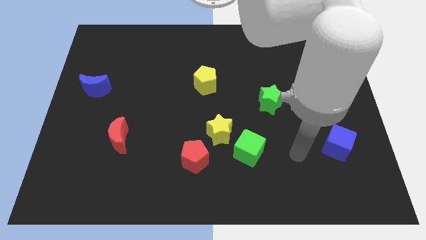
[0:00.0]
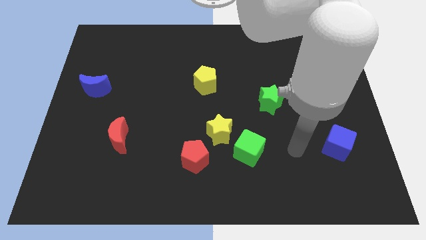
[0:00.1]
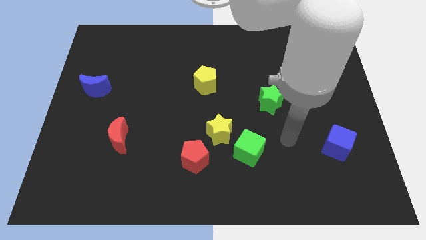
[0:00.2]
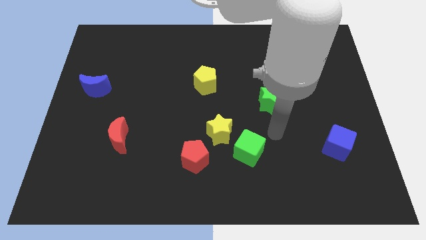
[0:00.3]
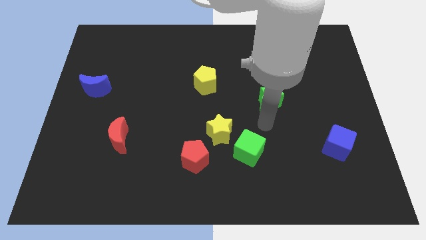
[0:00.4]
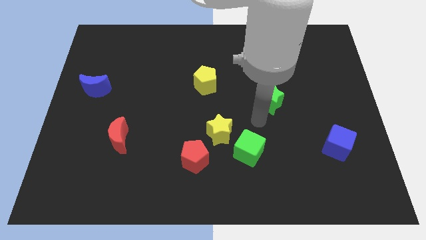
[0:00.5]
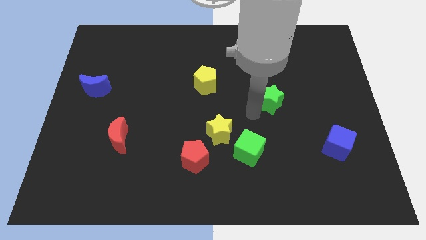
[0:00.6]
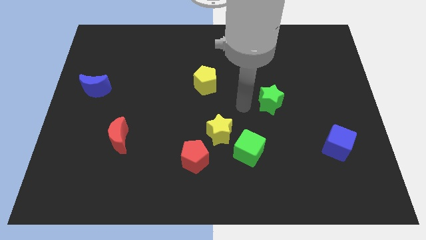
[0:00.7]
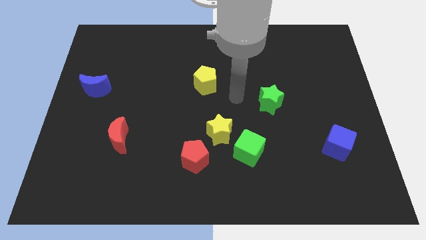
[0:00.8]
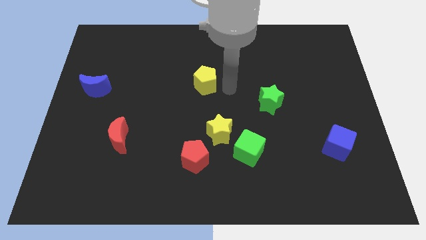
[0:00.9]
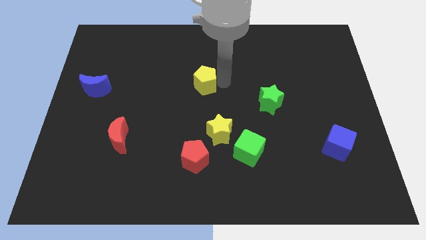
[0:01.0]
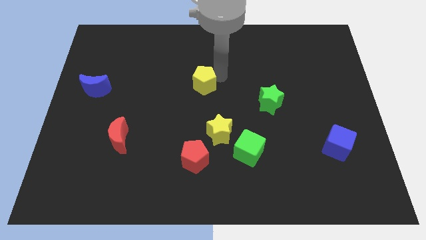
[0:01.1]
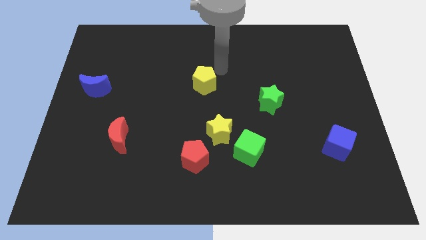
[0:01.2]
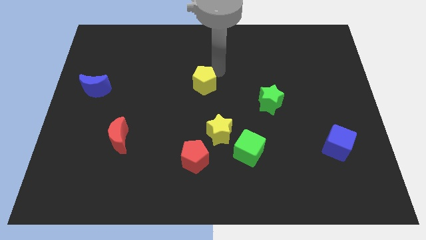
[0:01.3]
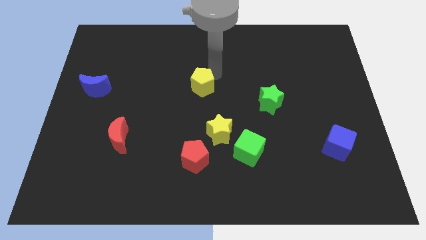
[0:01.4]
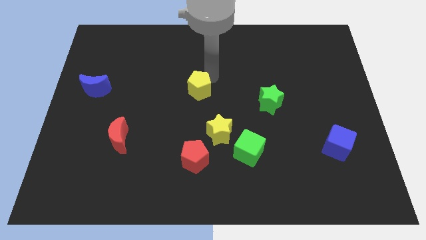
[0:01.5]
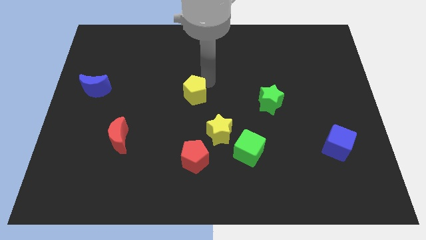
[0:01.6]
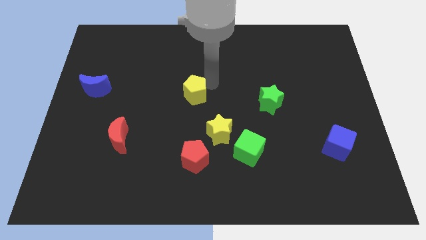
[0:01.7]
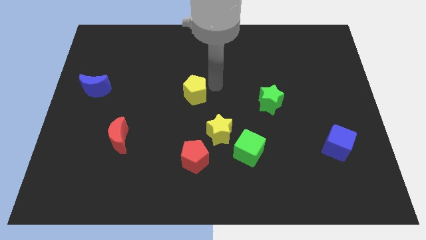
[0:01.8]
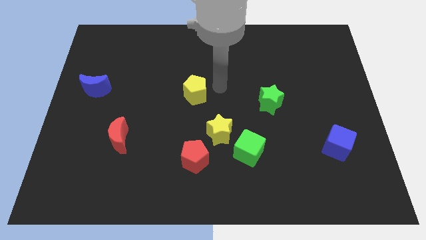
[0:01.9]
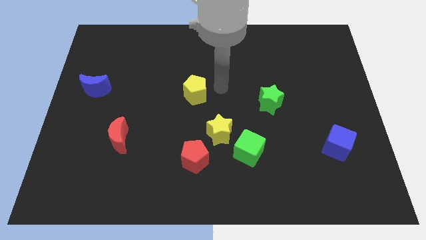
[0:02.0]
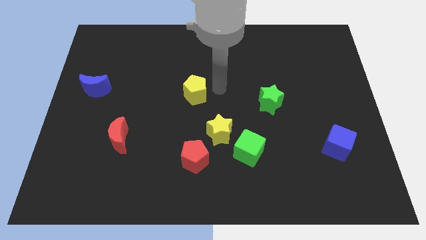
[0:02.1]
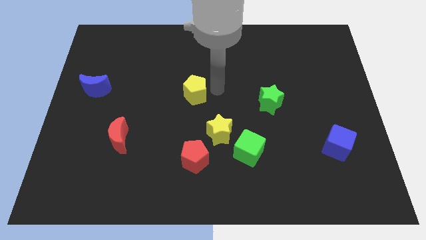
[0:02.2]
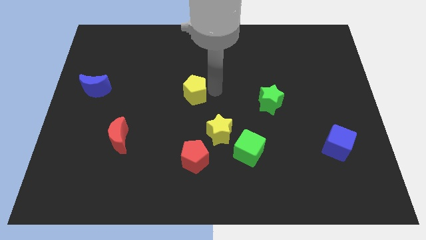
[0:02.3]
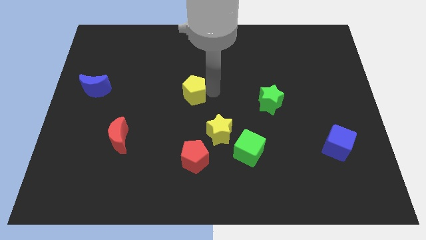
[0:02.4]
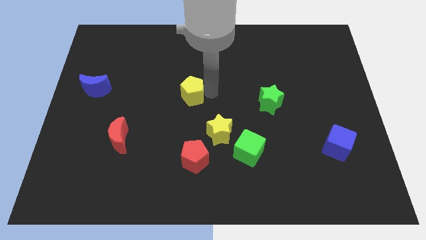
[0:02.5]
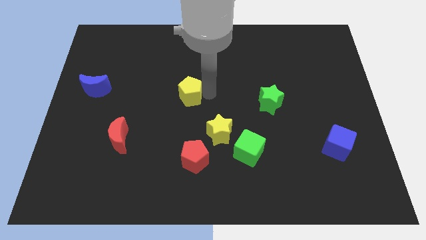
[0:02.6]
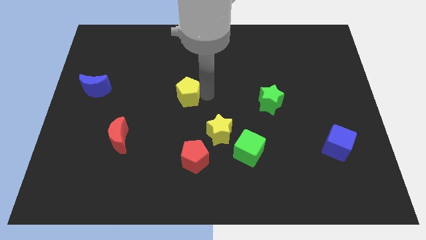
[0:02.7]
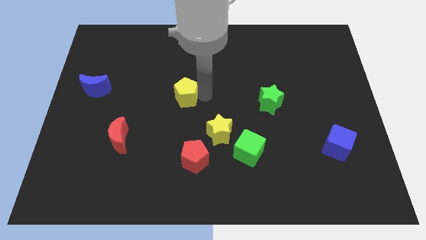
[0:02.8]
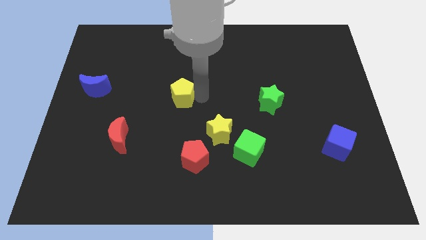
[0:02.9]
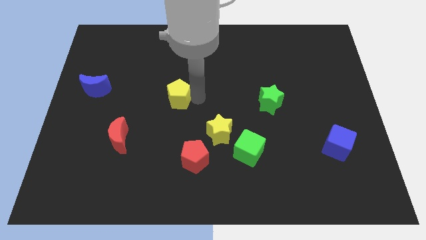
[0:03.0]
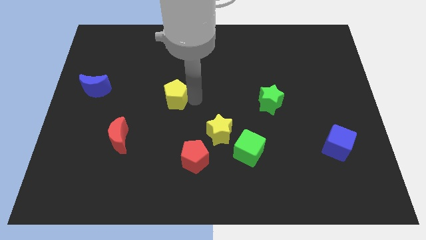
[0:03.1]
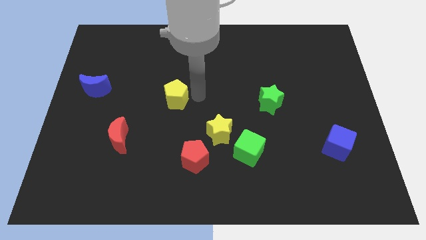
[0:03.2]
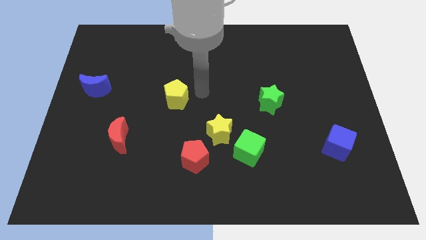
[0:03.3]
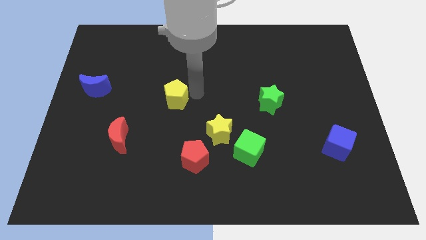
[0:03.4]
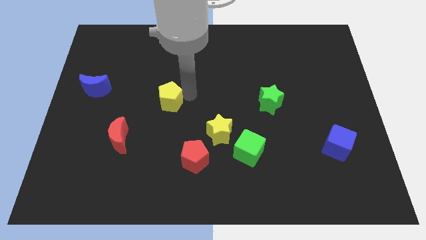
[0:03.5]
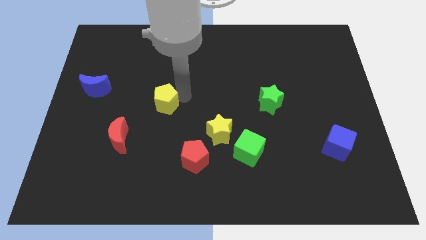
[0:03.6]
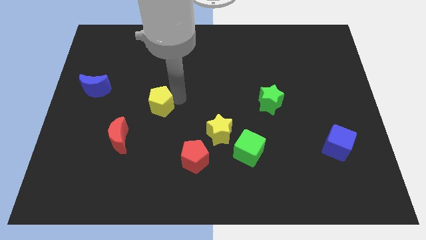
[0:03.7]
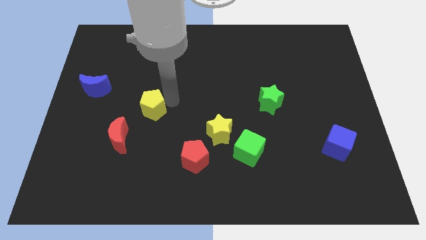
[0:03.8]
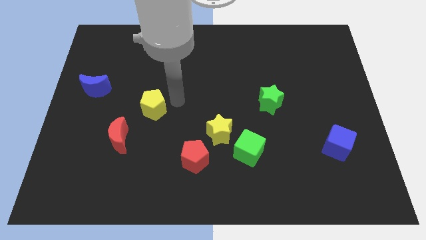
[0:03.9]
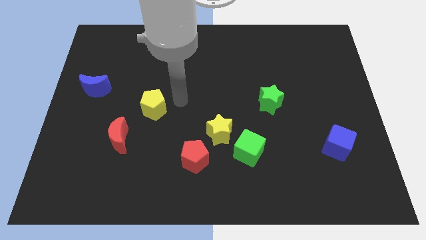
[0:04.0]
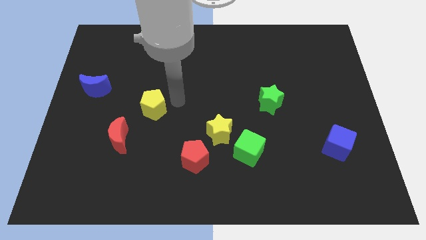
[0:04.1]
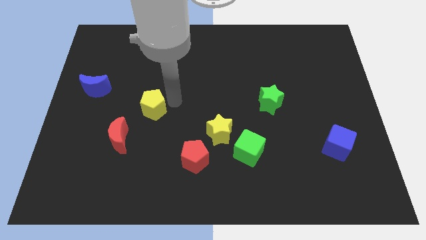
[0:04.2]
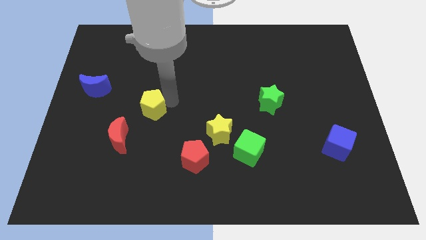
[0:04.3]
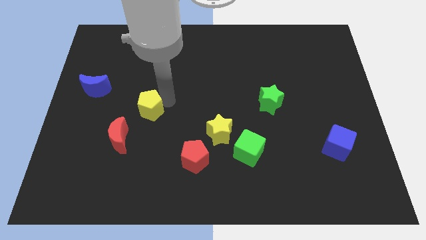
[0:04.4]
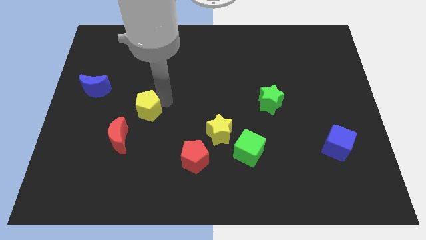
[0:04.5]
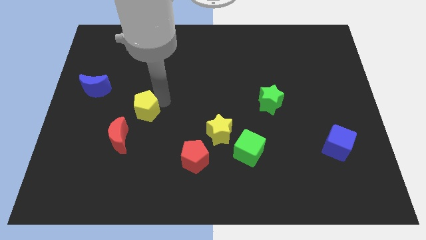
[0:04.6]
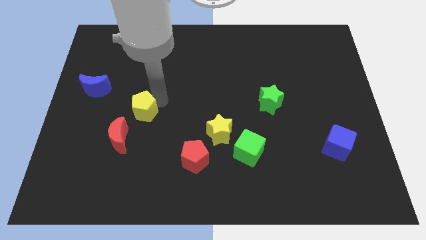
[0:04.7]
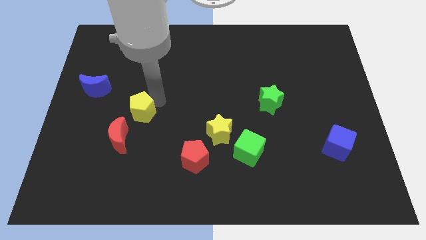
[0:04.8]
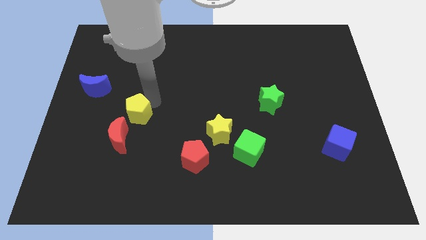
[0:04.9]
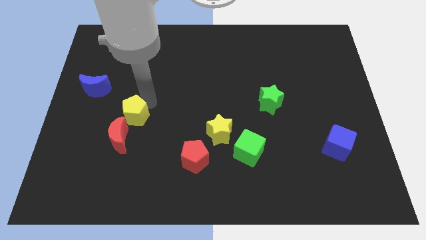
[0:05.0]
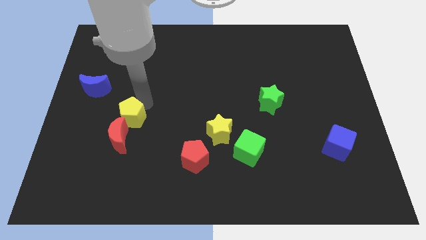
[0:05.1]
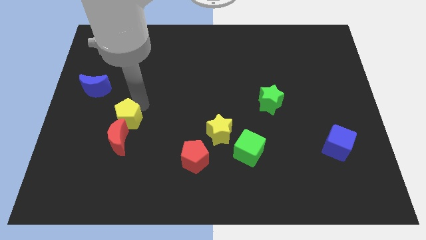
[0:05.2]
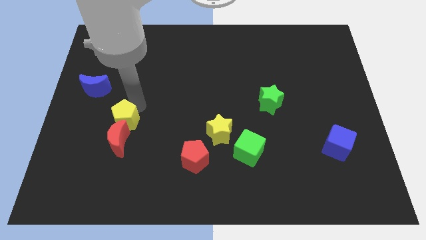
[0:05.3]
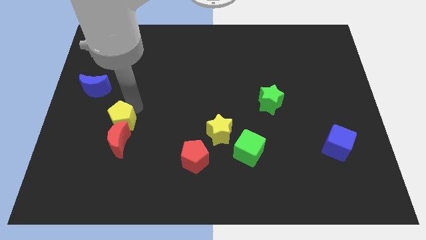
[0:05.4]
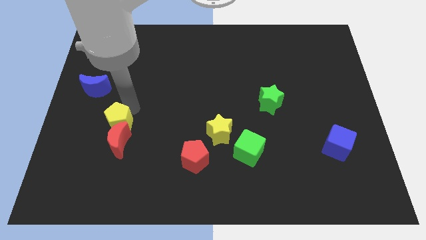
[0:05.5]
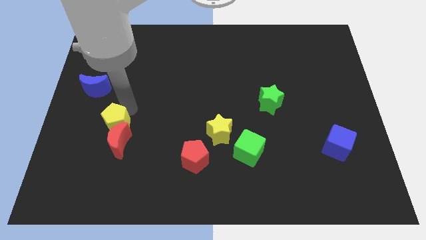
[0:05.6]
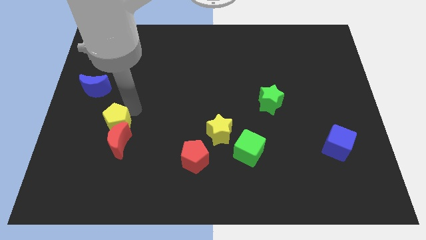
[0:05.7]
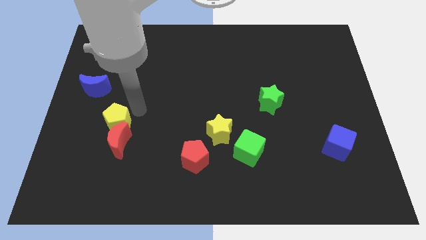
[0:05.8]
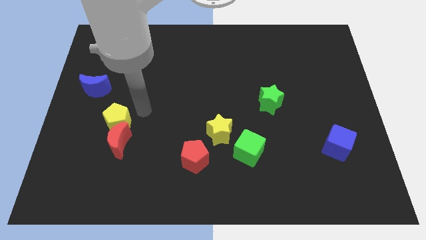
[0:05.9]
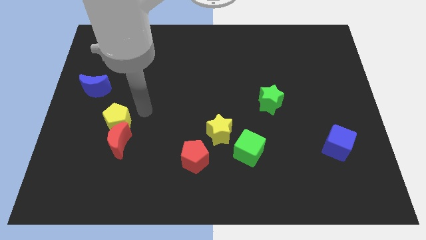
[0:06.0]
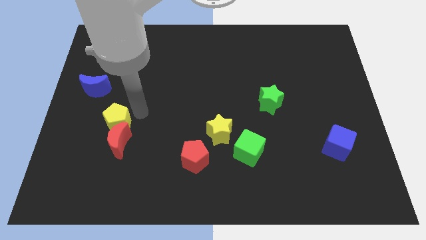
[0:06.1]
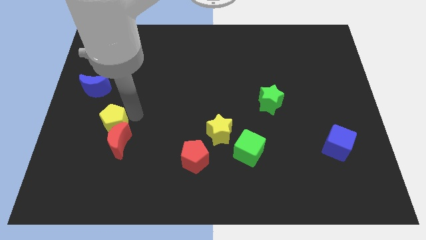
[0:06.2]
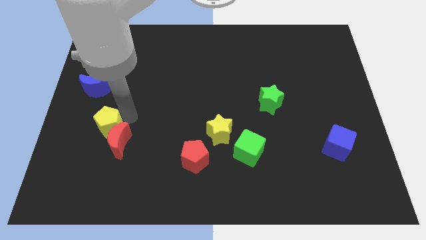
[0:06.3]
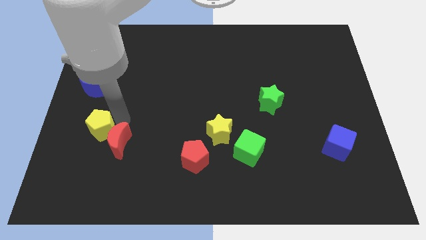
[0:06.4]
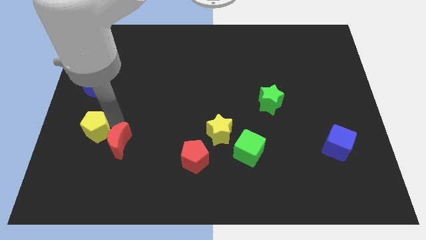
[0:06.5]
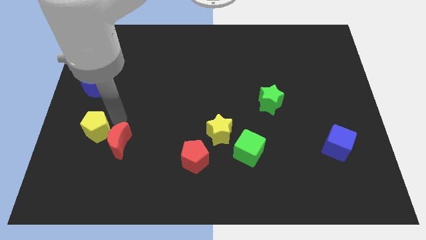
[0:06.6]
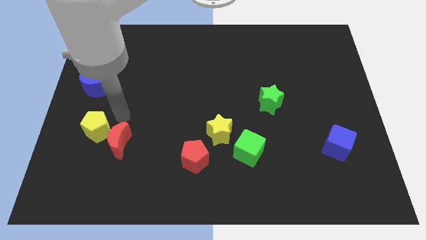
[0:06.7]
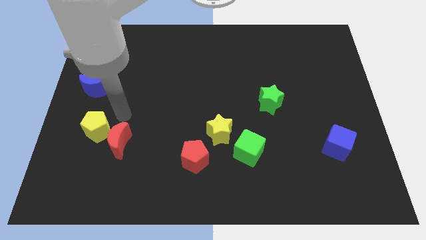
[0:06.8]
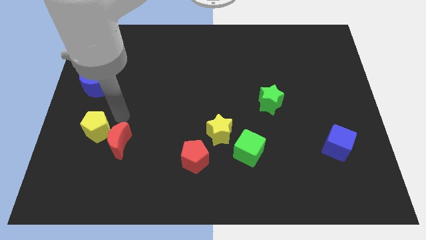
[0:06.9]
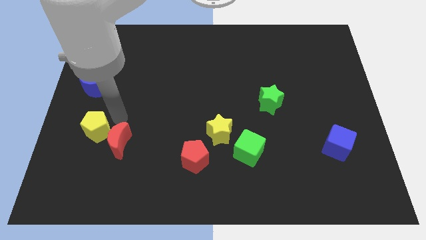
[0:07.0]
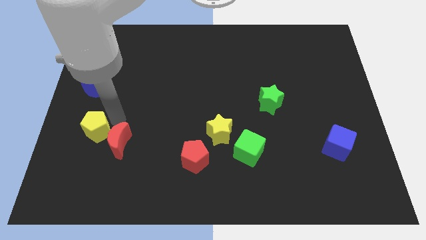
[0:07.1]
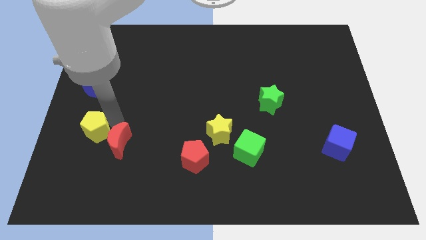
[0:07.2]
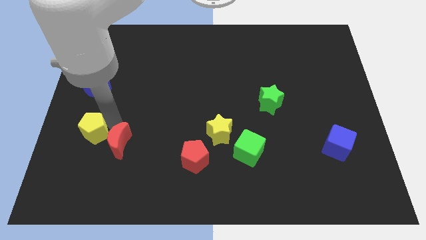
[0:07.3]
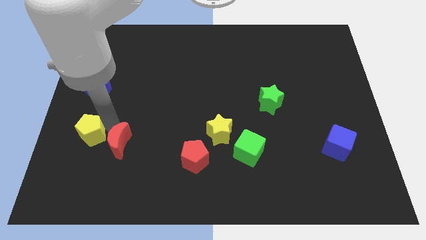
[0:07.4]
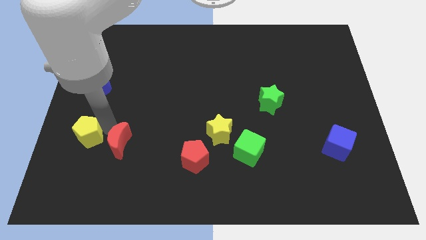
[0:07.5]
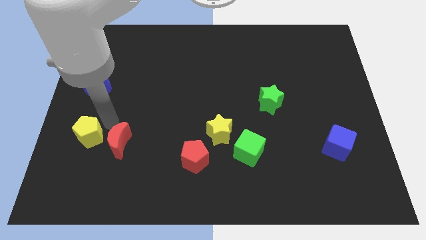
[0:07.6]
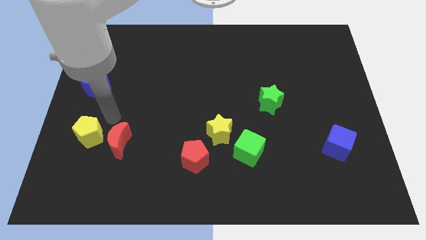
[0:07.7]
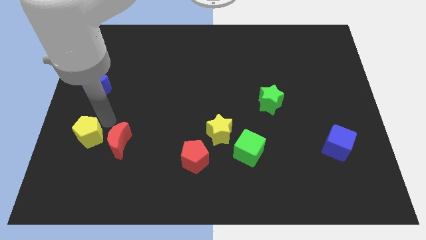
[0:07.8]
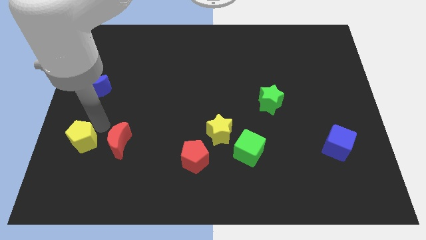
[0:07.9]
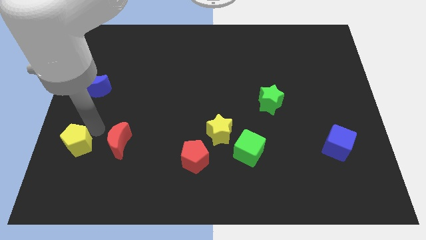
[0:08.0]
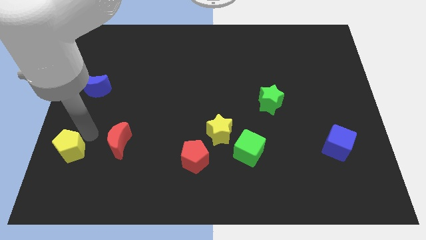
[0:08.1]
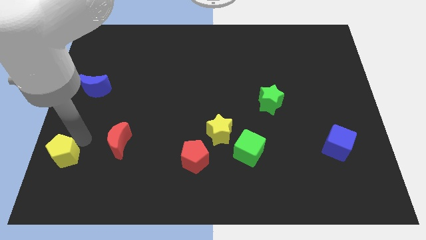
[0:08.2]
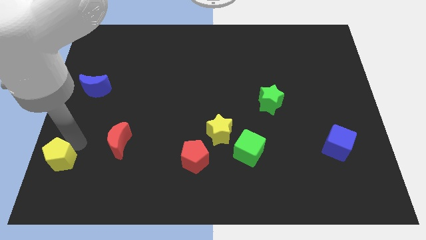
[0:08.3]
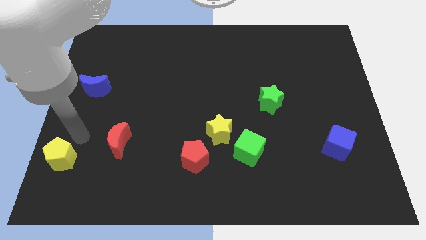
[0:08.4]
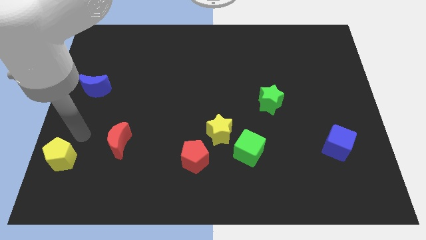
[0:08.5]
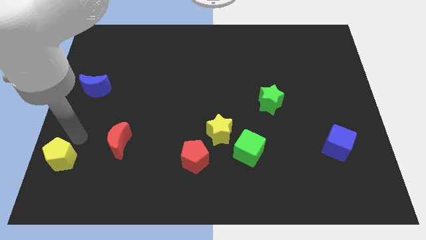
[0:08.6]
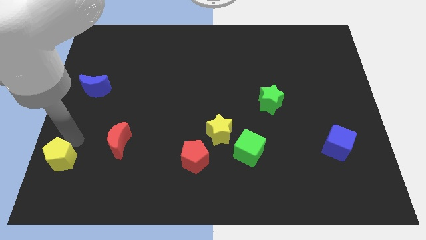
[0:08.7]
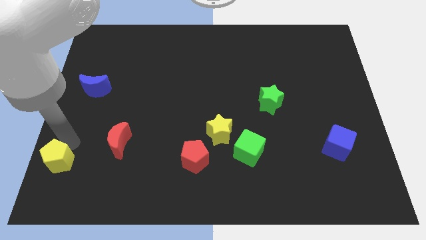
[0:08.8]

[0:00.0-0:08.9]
move the yellow pentagon to the lower left corner
